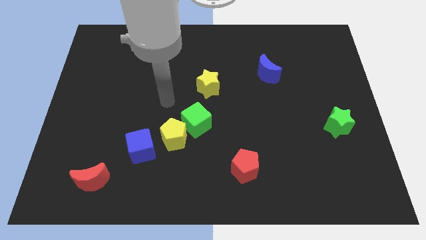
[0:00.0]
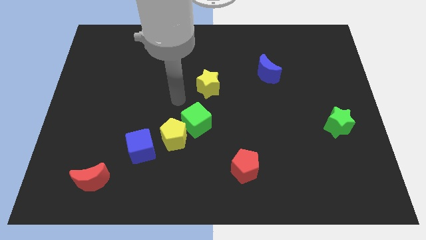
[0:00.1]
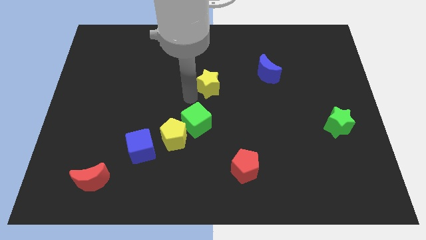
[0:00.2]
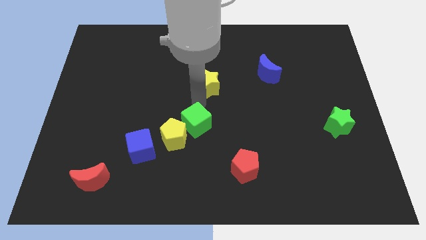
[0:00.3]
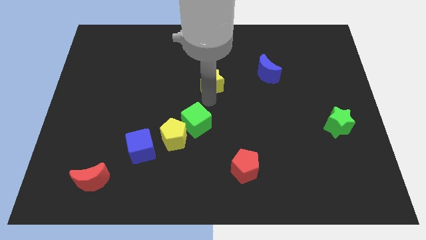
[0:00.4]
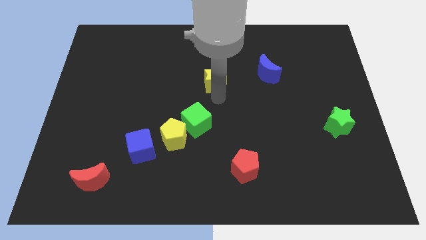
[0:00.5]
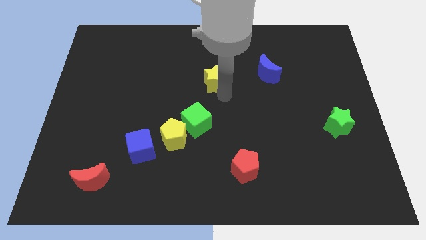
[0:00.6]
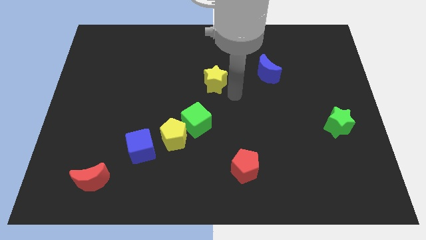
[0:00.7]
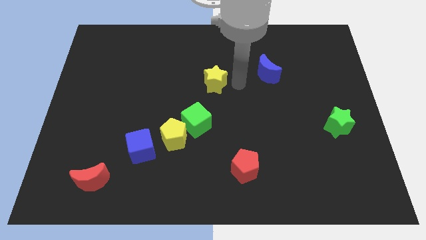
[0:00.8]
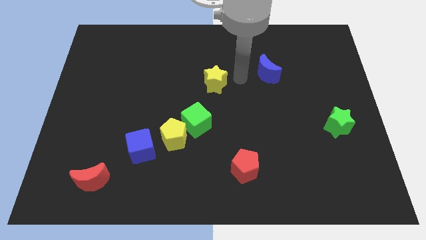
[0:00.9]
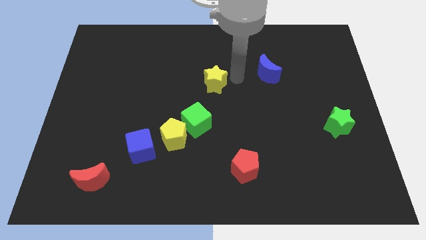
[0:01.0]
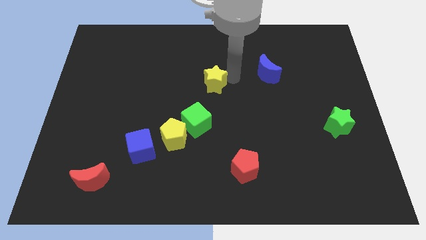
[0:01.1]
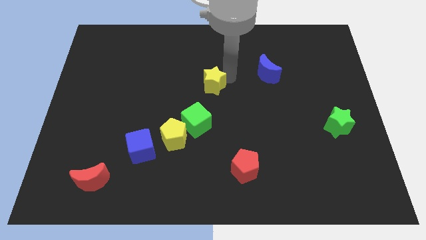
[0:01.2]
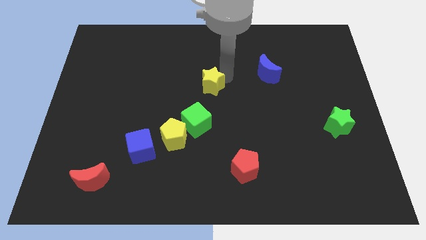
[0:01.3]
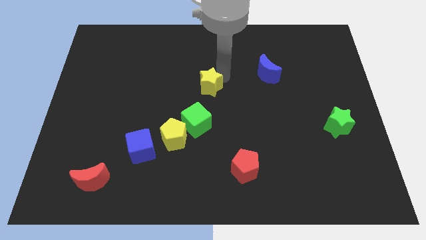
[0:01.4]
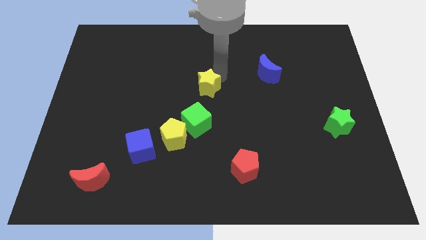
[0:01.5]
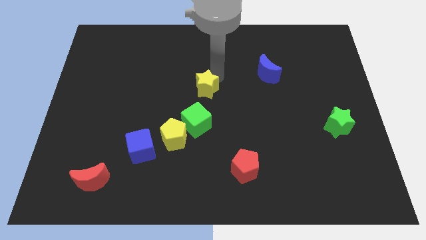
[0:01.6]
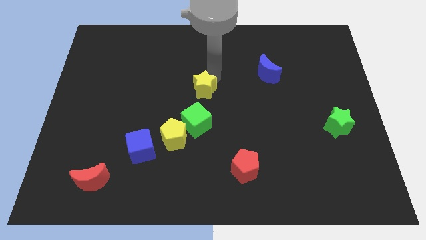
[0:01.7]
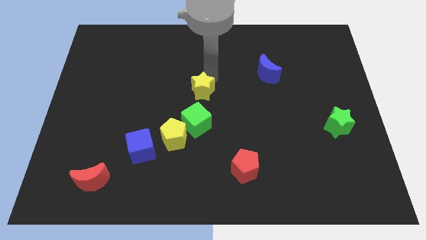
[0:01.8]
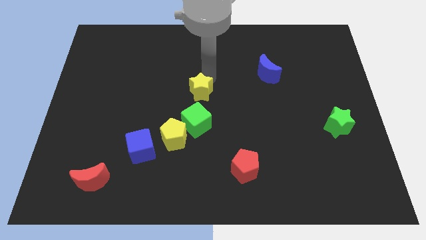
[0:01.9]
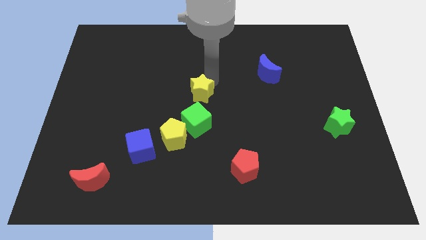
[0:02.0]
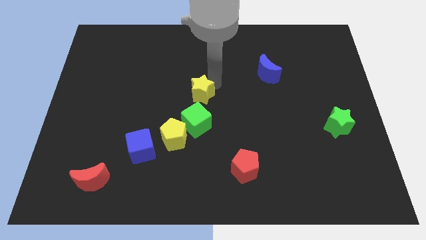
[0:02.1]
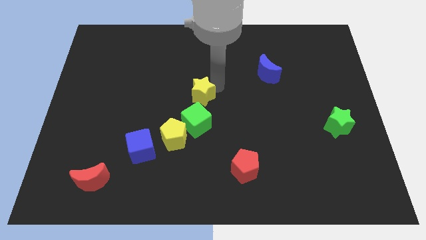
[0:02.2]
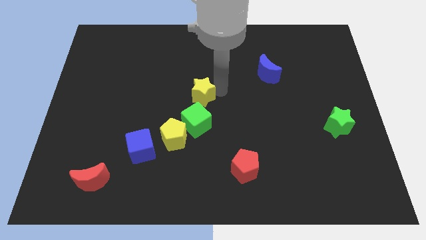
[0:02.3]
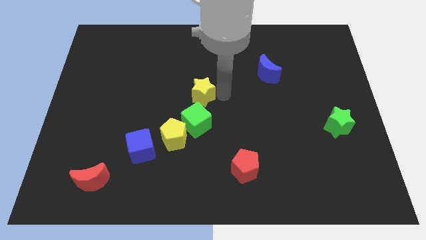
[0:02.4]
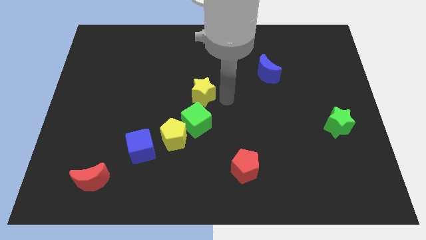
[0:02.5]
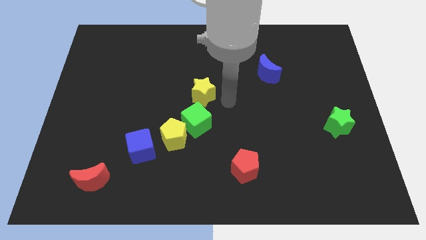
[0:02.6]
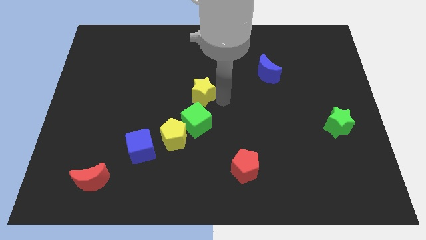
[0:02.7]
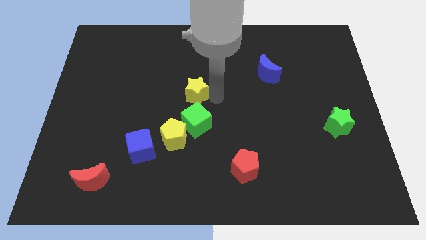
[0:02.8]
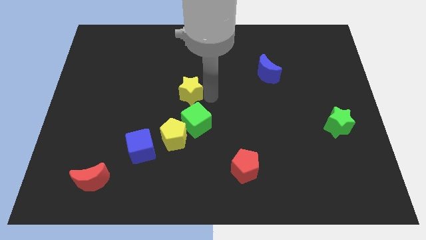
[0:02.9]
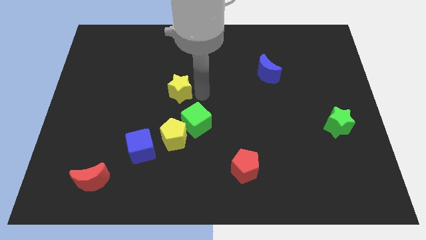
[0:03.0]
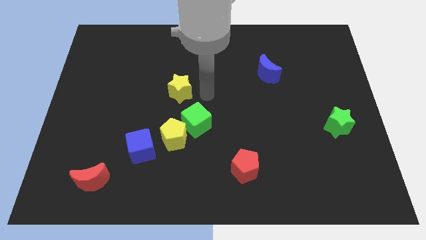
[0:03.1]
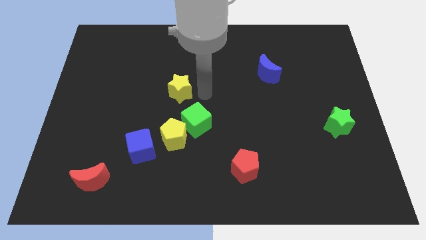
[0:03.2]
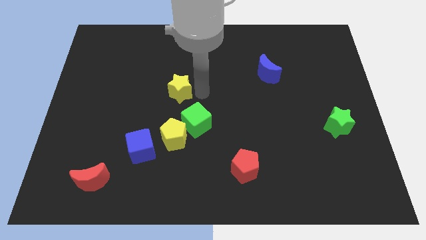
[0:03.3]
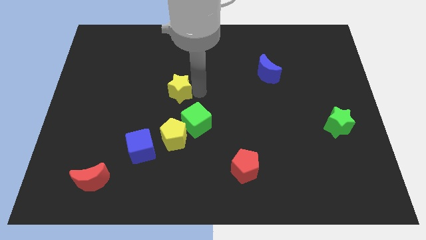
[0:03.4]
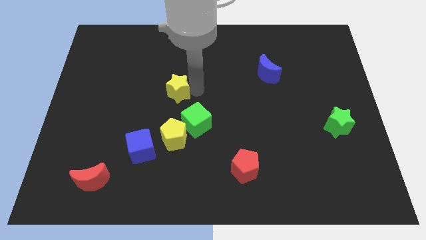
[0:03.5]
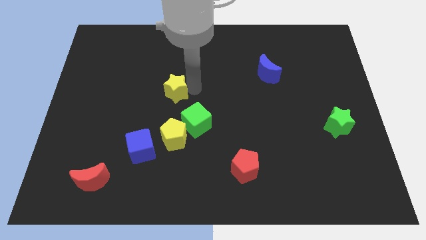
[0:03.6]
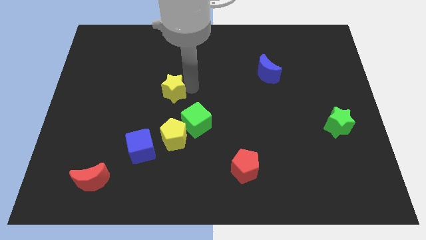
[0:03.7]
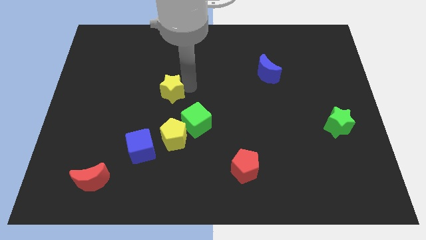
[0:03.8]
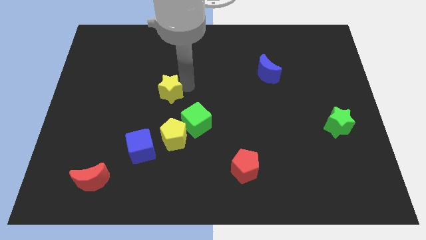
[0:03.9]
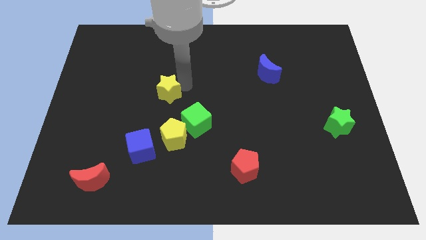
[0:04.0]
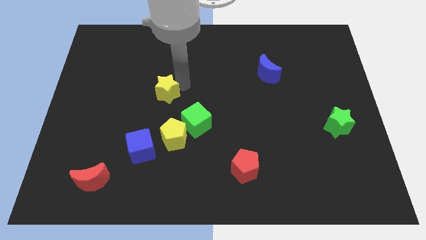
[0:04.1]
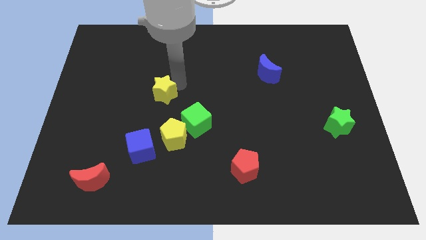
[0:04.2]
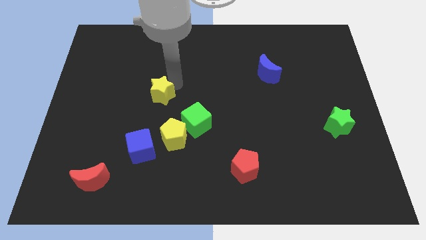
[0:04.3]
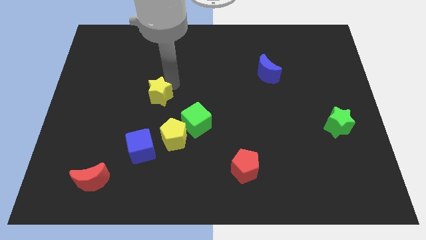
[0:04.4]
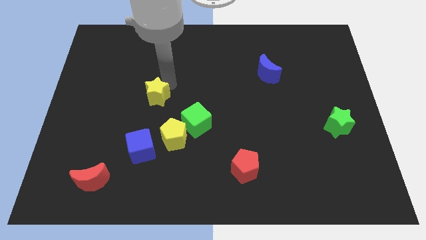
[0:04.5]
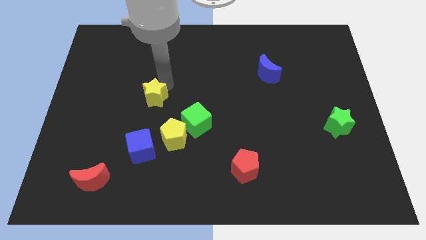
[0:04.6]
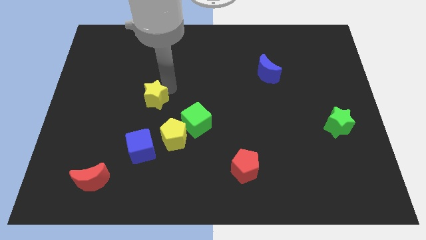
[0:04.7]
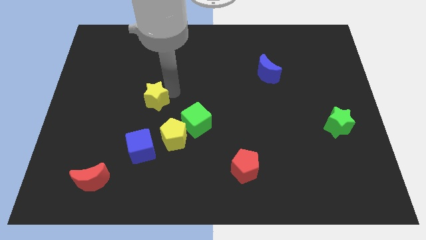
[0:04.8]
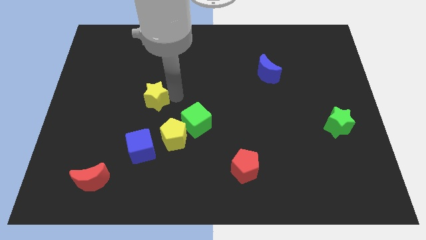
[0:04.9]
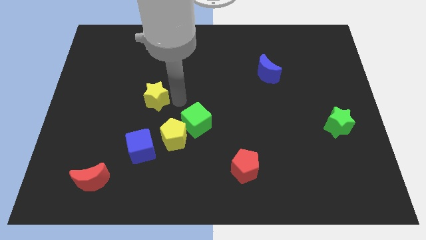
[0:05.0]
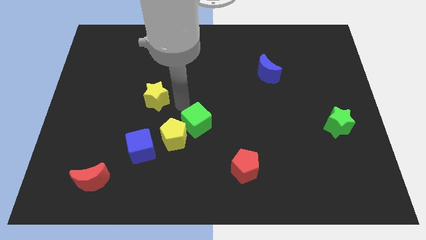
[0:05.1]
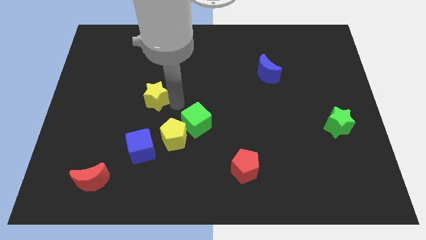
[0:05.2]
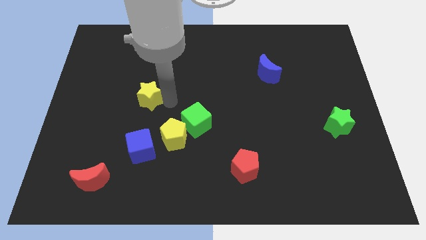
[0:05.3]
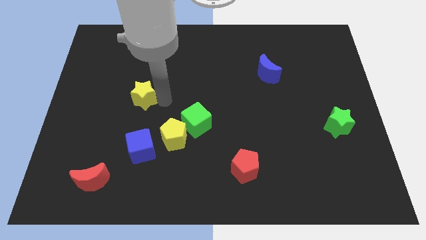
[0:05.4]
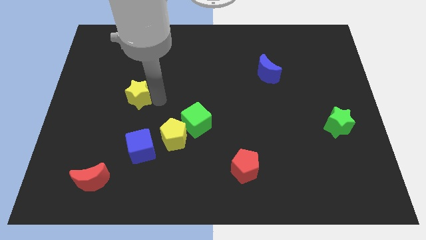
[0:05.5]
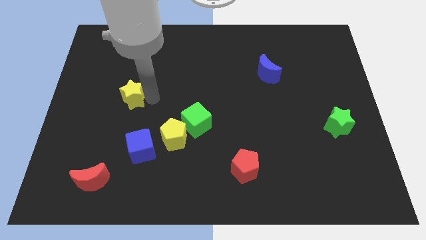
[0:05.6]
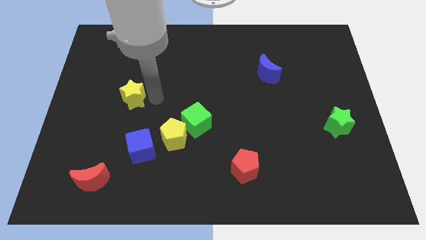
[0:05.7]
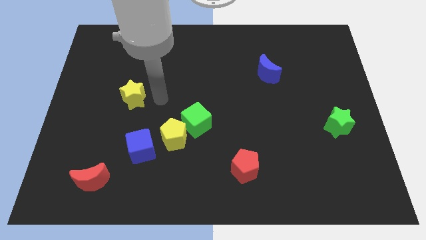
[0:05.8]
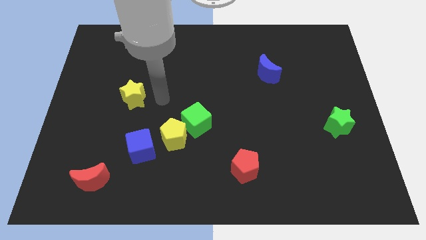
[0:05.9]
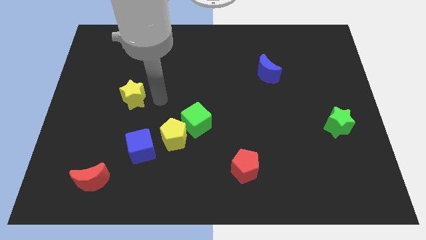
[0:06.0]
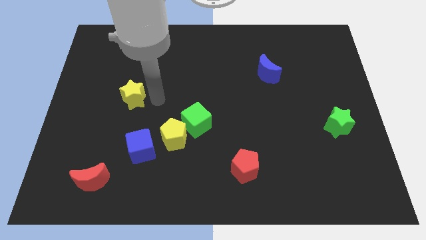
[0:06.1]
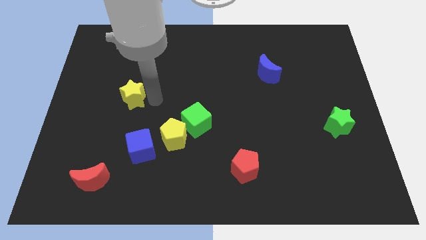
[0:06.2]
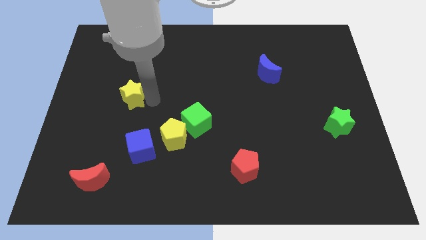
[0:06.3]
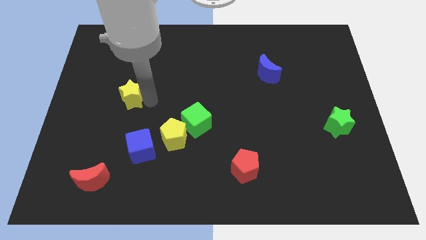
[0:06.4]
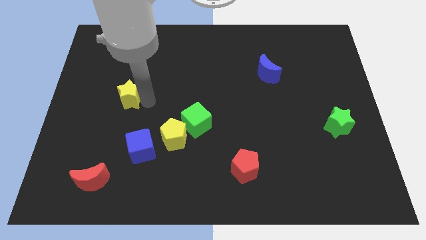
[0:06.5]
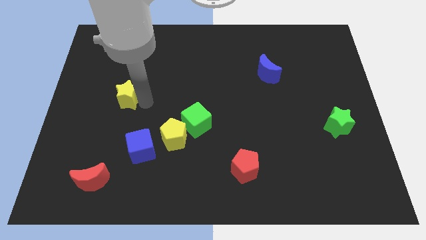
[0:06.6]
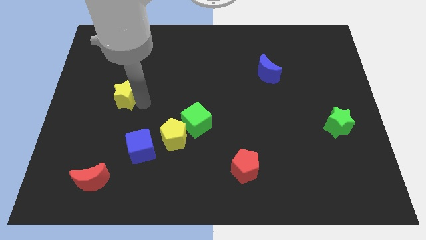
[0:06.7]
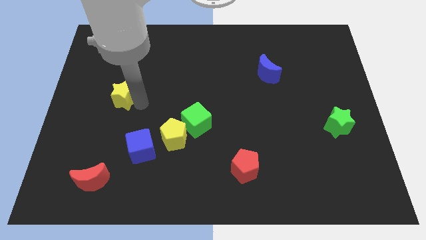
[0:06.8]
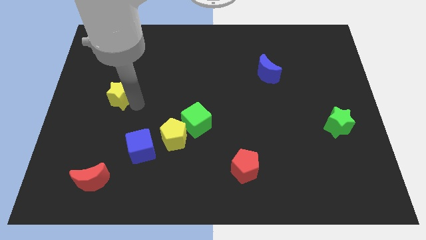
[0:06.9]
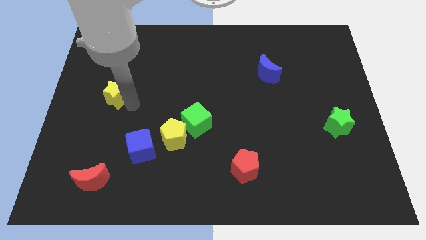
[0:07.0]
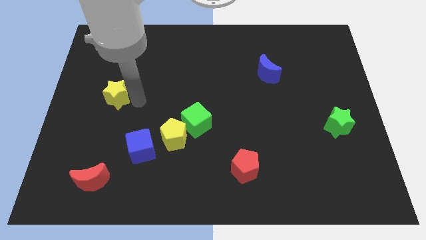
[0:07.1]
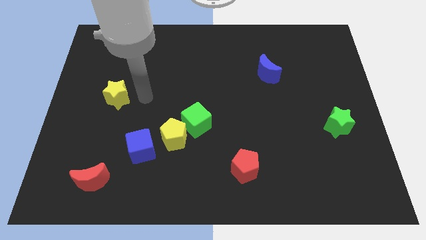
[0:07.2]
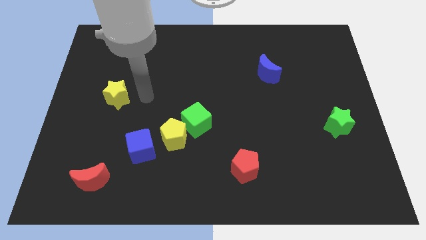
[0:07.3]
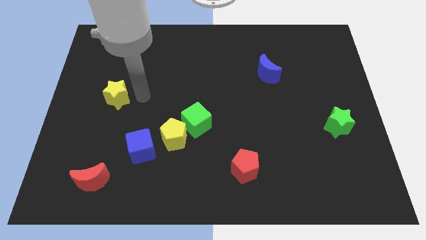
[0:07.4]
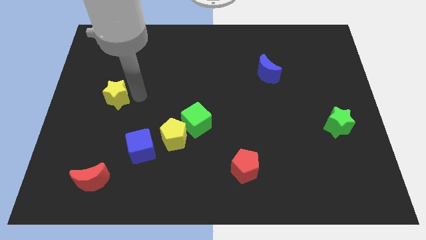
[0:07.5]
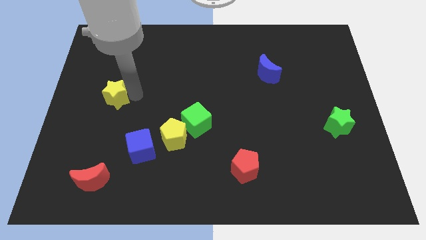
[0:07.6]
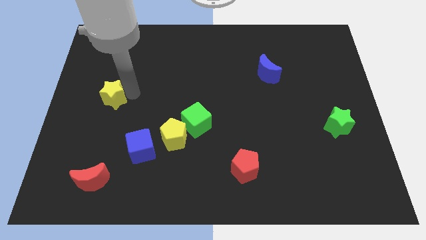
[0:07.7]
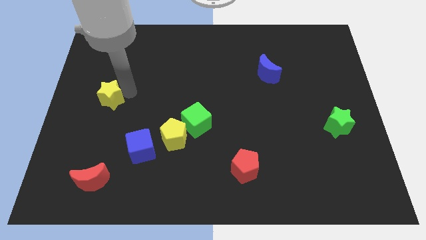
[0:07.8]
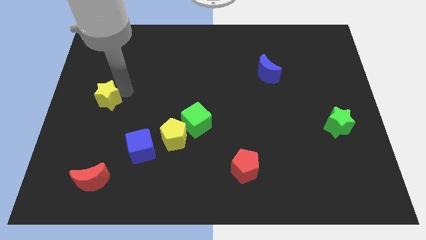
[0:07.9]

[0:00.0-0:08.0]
push the yellow star to the left side
